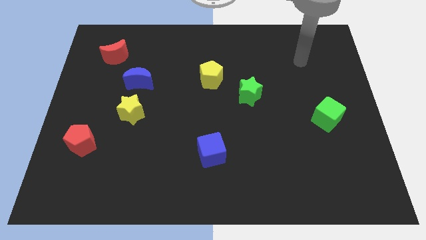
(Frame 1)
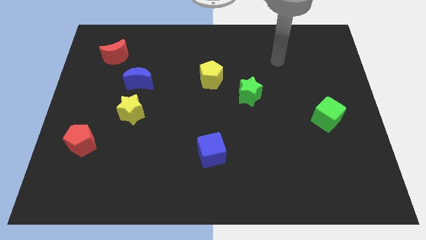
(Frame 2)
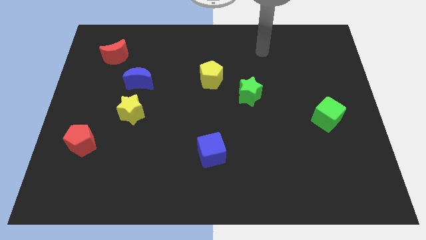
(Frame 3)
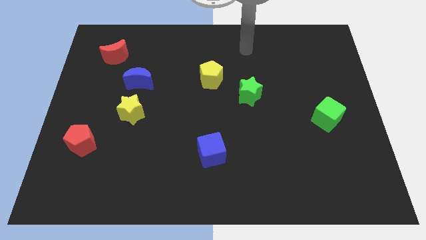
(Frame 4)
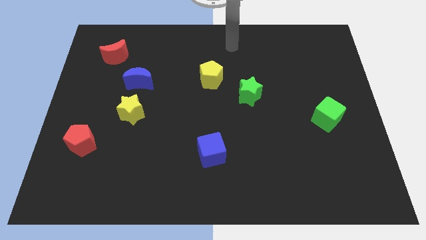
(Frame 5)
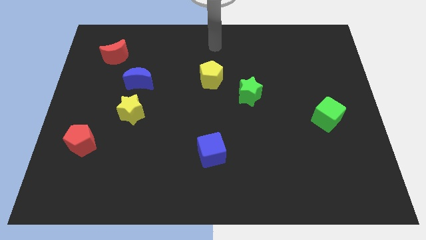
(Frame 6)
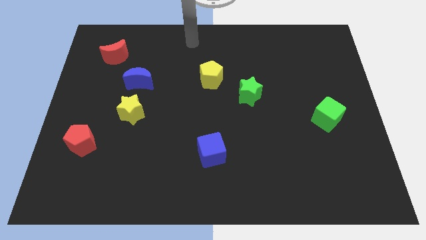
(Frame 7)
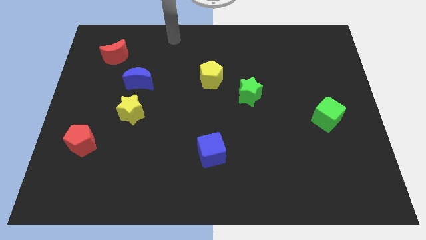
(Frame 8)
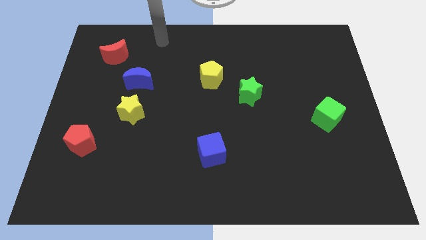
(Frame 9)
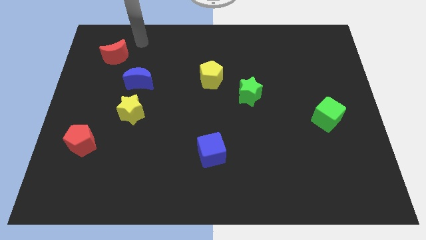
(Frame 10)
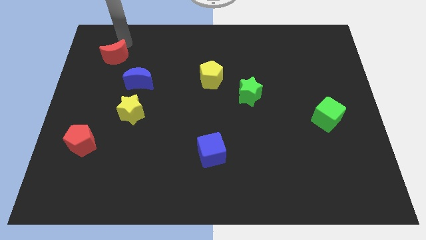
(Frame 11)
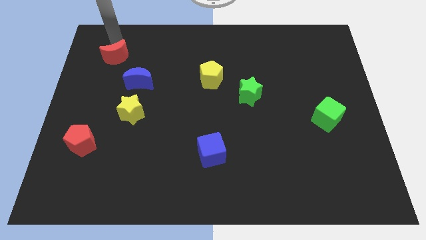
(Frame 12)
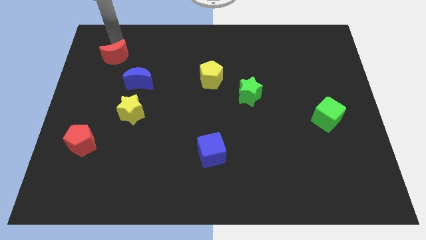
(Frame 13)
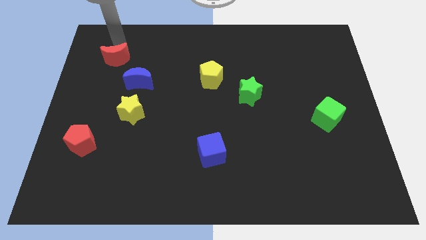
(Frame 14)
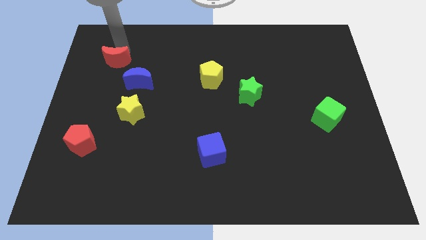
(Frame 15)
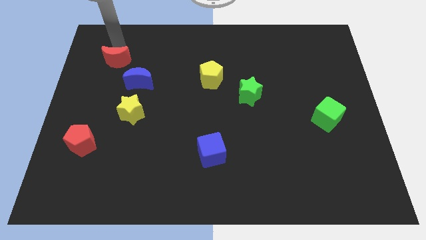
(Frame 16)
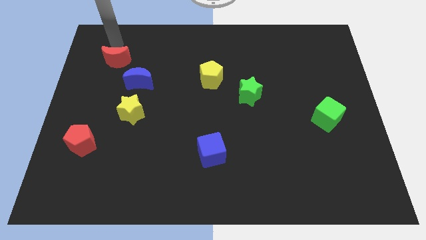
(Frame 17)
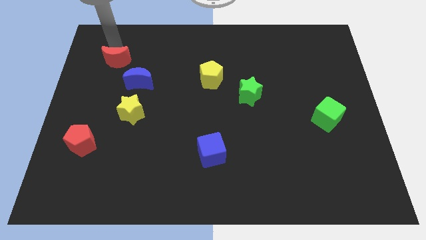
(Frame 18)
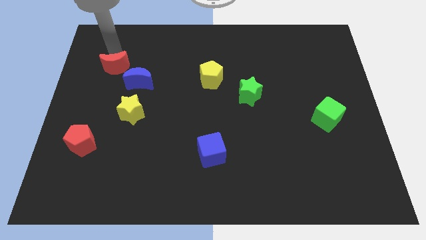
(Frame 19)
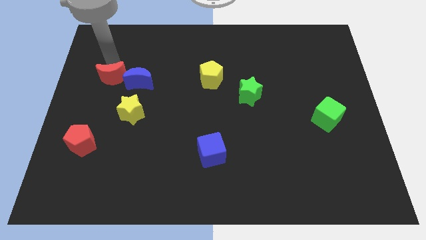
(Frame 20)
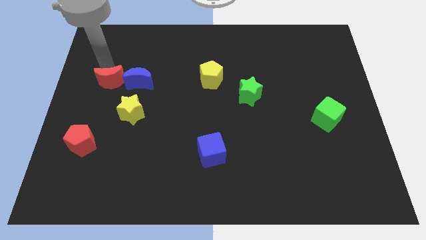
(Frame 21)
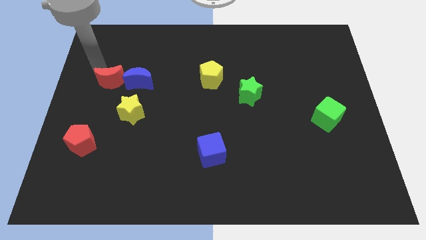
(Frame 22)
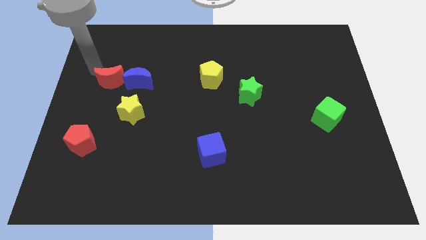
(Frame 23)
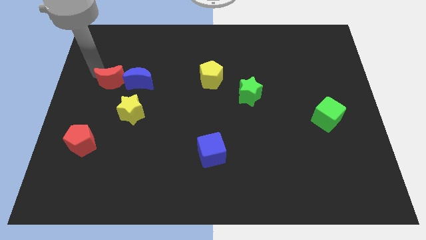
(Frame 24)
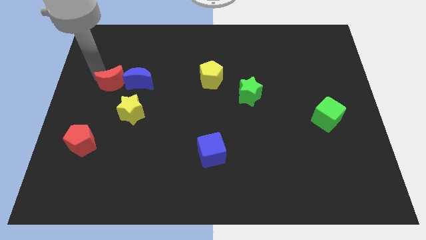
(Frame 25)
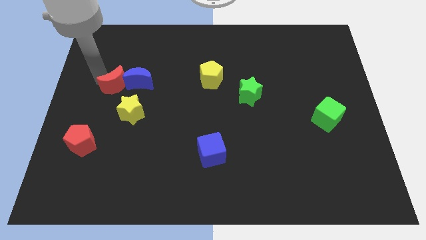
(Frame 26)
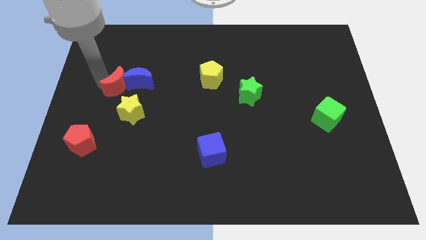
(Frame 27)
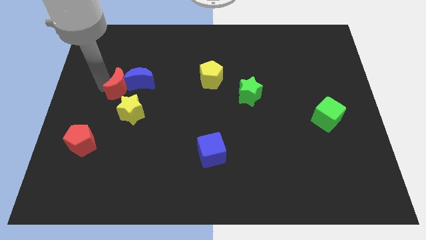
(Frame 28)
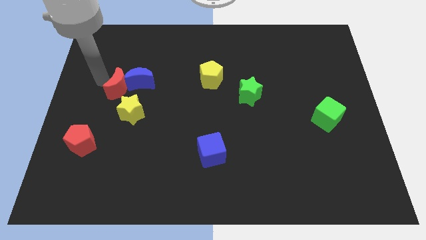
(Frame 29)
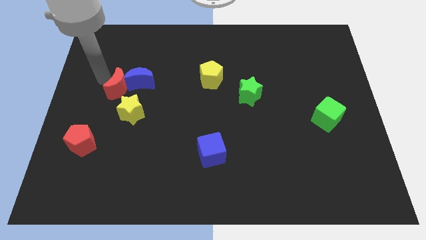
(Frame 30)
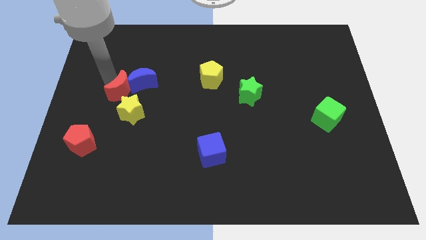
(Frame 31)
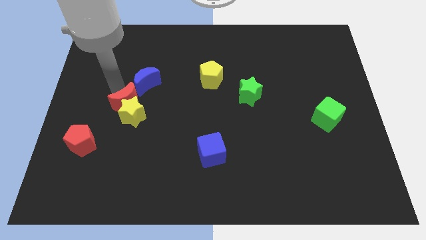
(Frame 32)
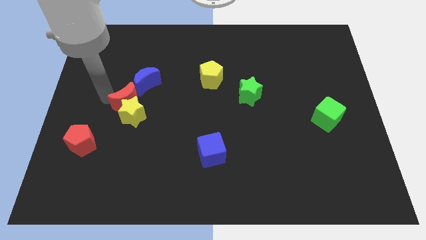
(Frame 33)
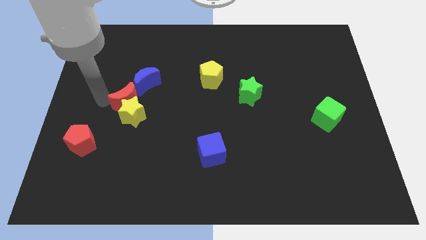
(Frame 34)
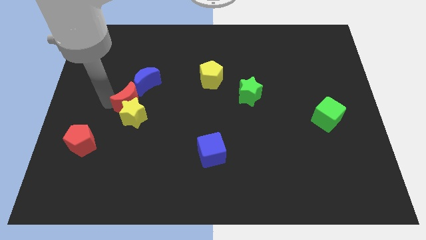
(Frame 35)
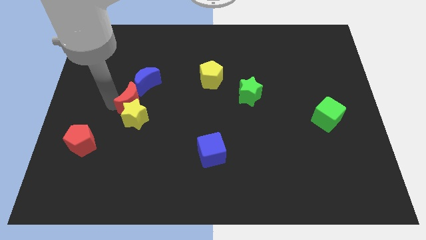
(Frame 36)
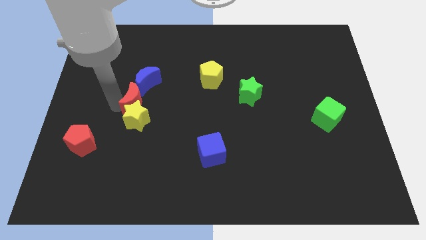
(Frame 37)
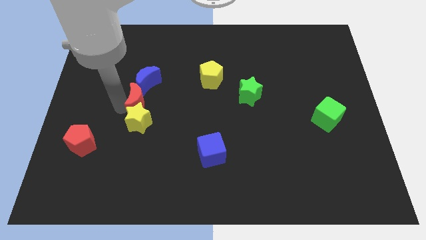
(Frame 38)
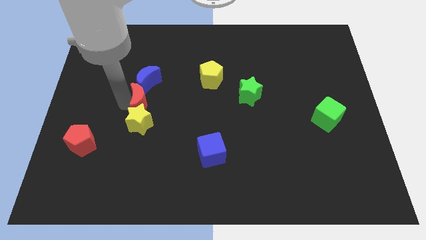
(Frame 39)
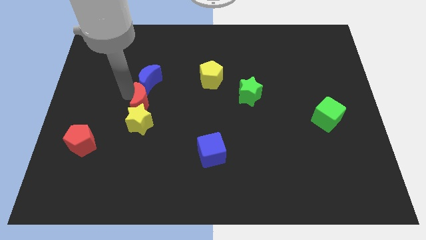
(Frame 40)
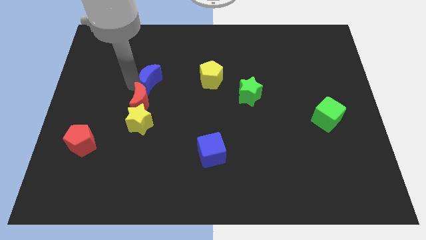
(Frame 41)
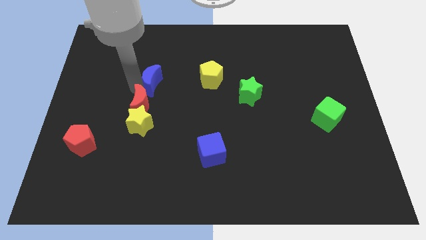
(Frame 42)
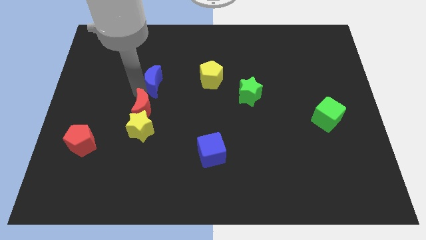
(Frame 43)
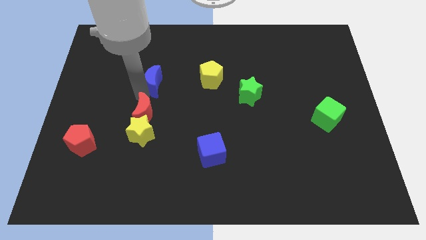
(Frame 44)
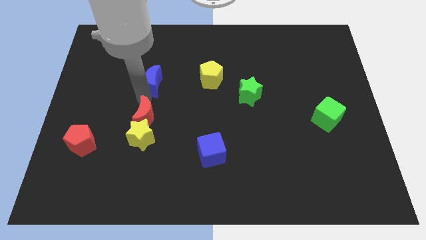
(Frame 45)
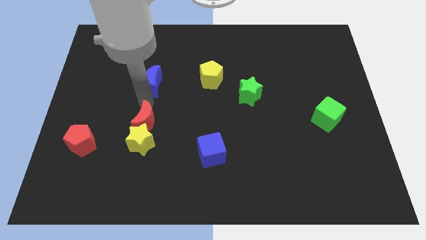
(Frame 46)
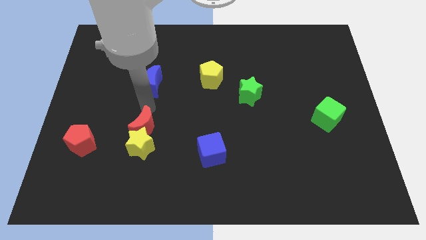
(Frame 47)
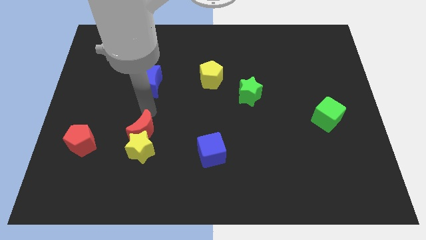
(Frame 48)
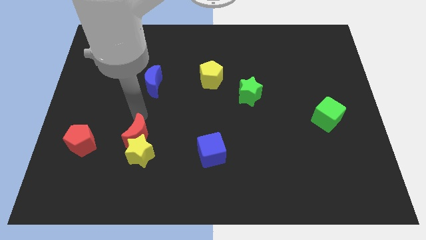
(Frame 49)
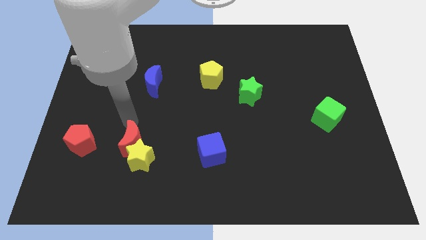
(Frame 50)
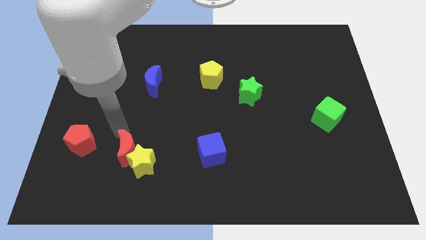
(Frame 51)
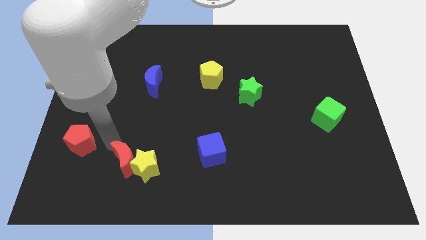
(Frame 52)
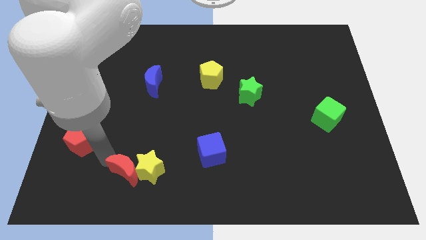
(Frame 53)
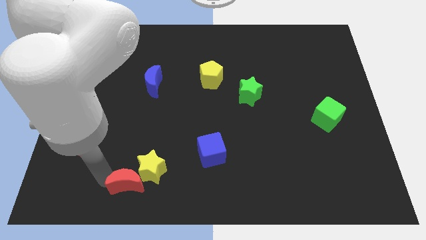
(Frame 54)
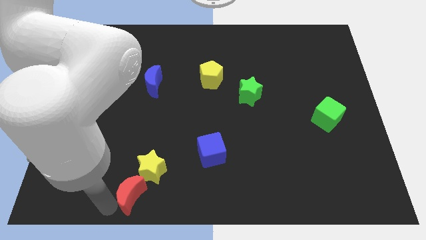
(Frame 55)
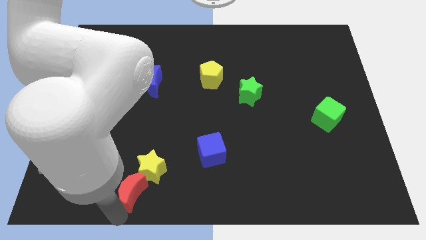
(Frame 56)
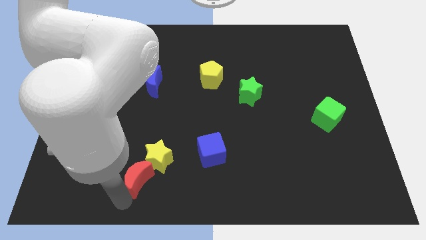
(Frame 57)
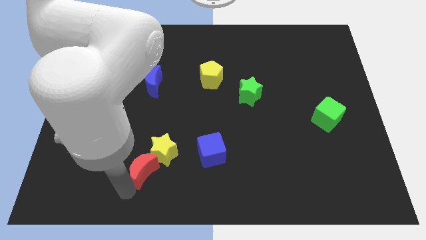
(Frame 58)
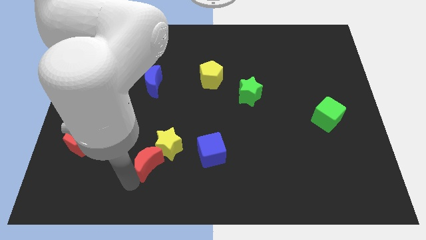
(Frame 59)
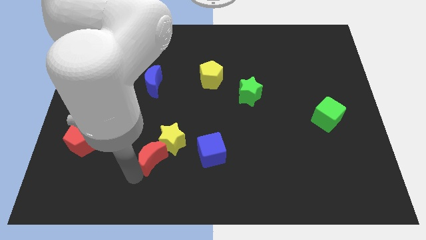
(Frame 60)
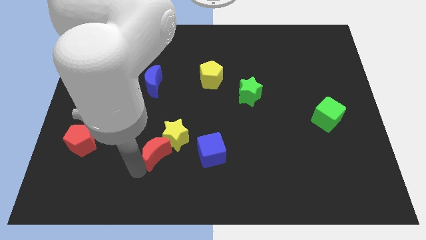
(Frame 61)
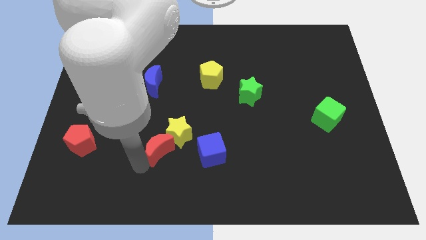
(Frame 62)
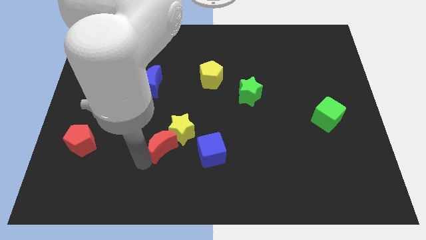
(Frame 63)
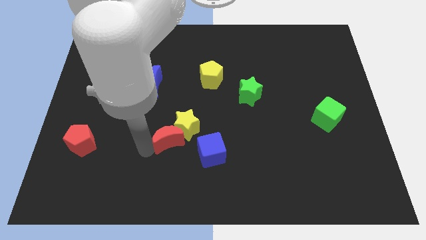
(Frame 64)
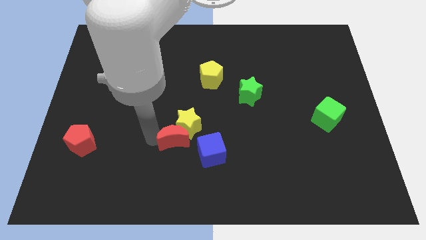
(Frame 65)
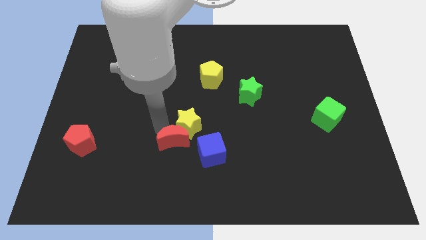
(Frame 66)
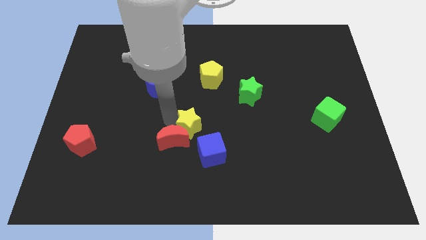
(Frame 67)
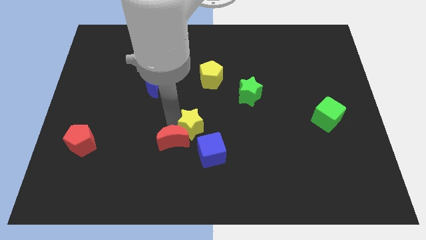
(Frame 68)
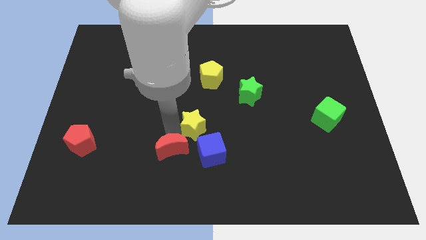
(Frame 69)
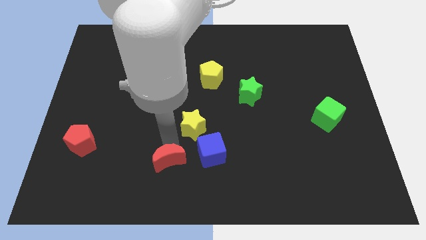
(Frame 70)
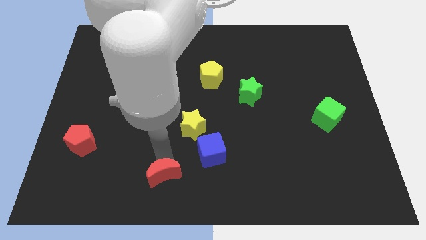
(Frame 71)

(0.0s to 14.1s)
put the red moon to the bottom side

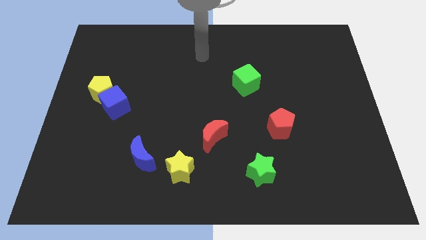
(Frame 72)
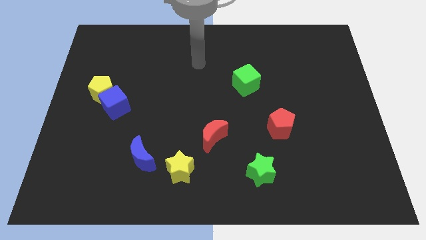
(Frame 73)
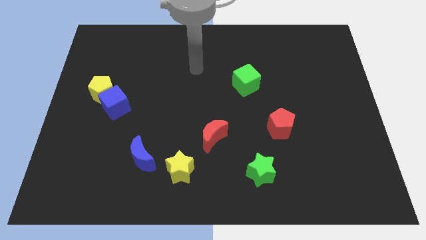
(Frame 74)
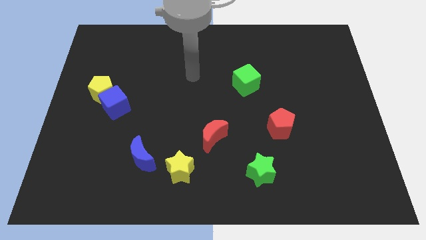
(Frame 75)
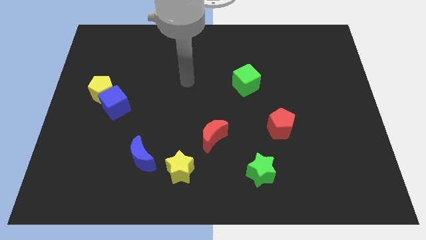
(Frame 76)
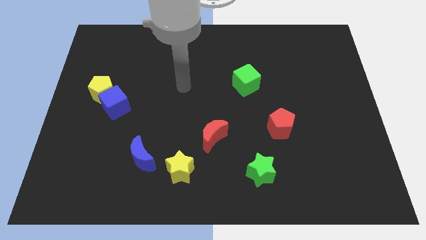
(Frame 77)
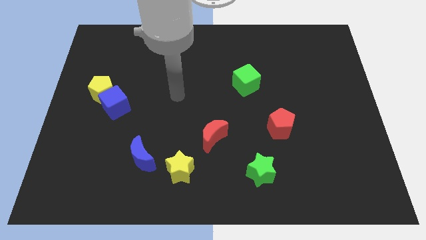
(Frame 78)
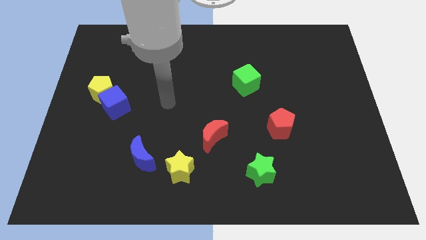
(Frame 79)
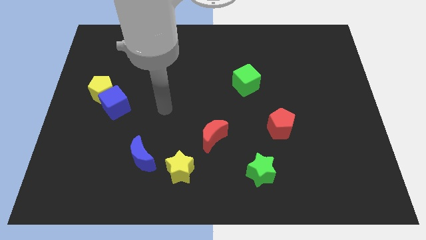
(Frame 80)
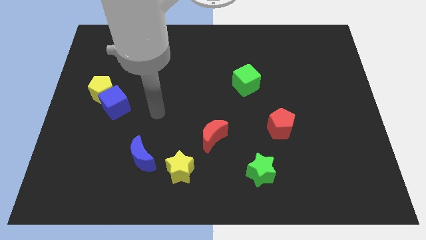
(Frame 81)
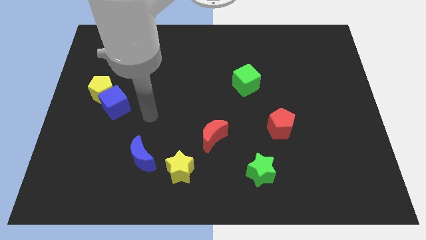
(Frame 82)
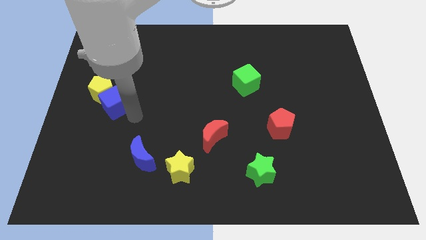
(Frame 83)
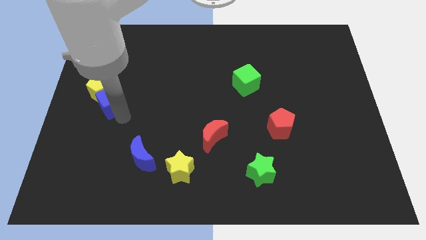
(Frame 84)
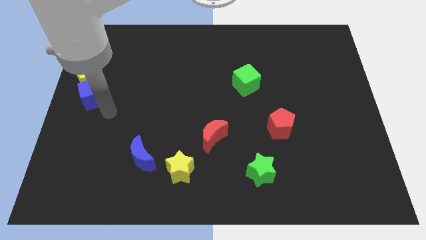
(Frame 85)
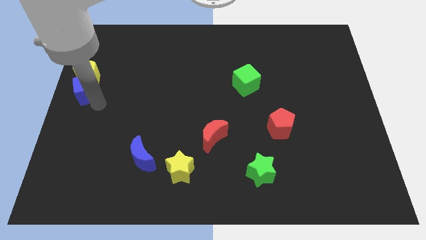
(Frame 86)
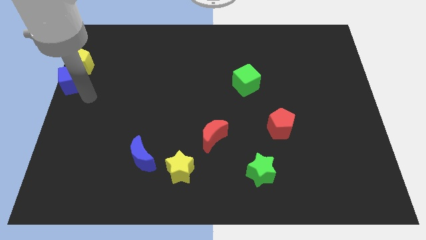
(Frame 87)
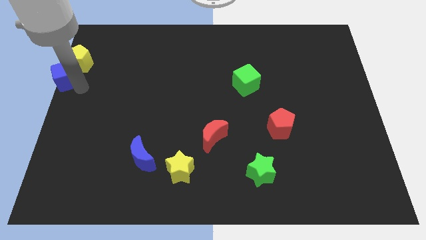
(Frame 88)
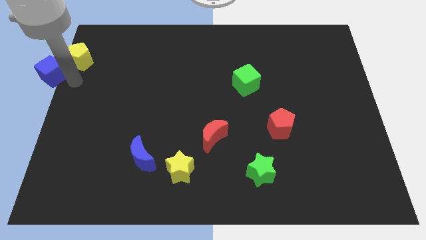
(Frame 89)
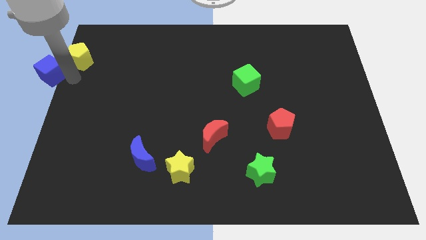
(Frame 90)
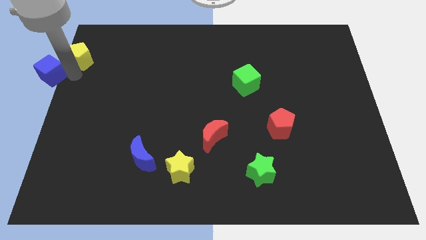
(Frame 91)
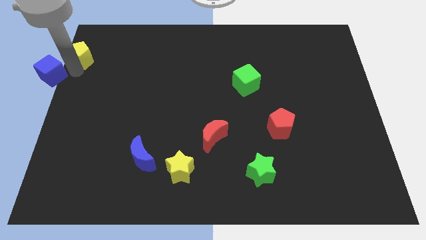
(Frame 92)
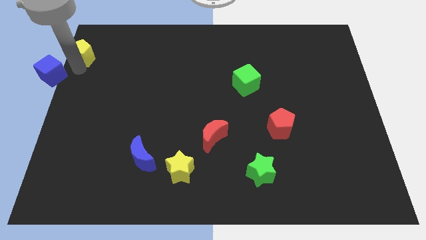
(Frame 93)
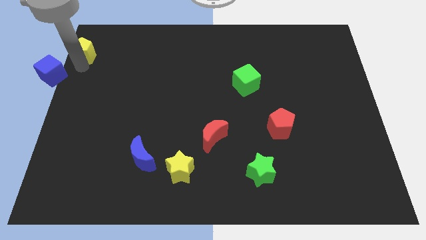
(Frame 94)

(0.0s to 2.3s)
slide the yellow pentagon to the top left
